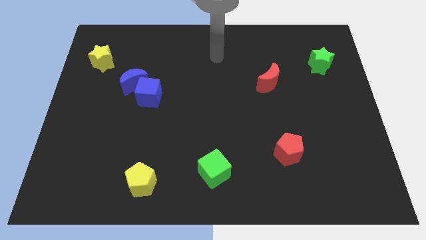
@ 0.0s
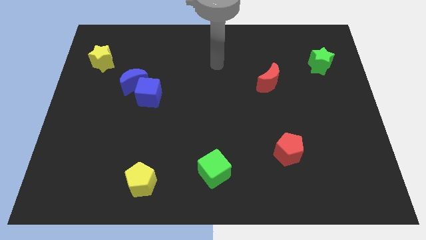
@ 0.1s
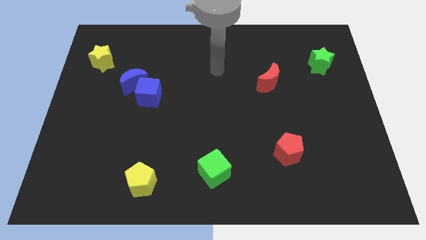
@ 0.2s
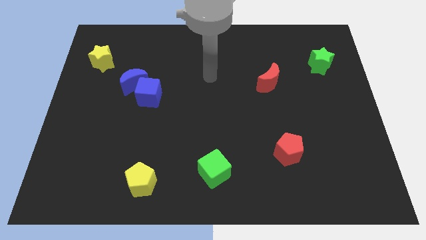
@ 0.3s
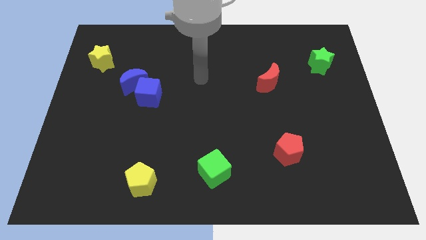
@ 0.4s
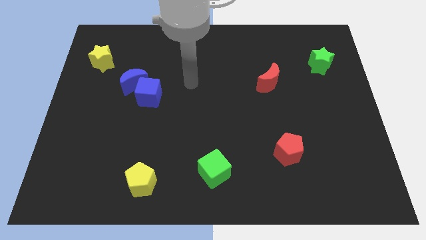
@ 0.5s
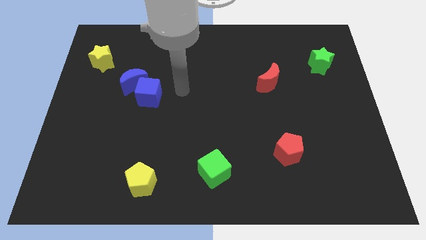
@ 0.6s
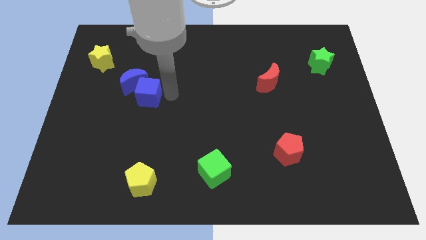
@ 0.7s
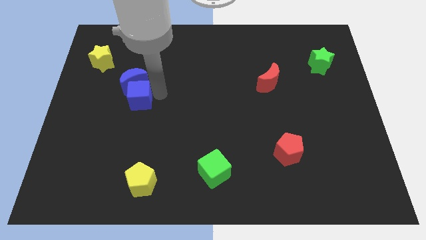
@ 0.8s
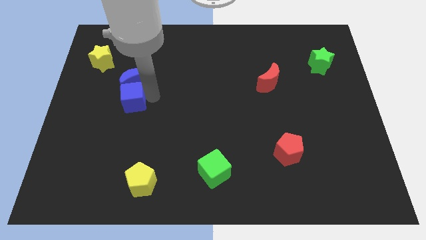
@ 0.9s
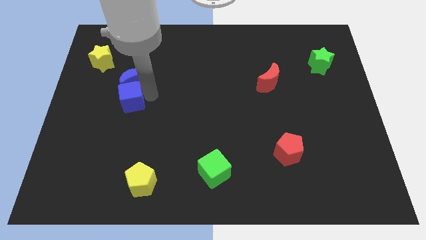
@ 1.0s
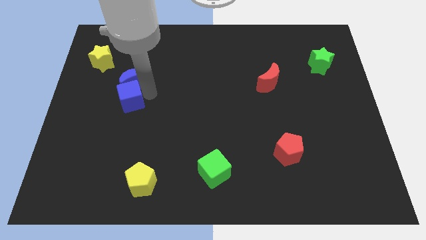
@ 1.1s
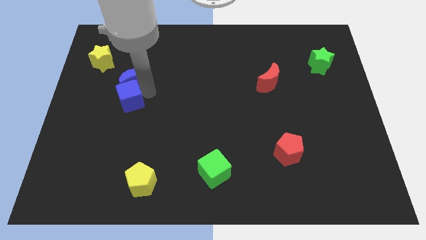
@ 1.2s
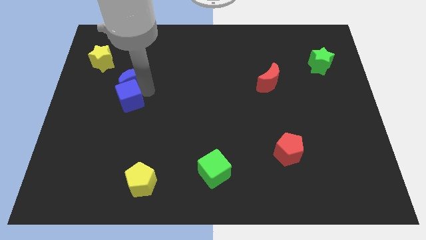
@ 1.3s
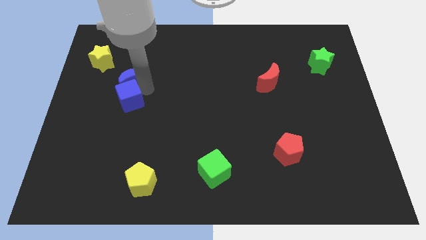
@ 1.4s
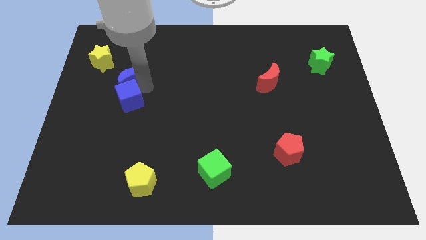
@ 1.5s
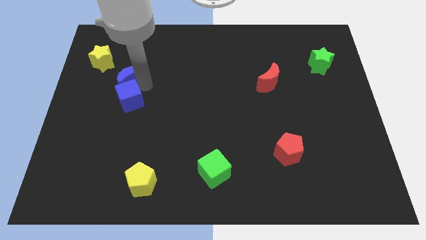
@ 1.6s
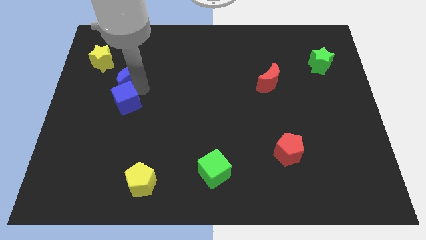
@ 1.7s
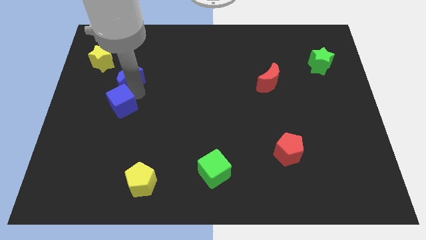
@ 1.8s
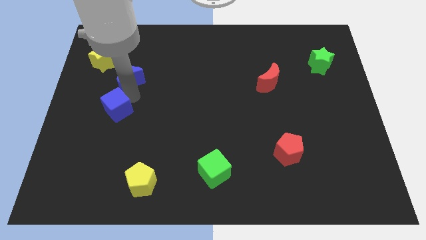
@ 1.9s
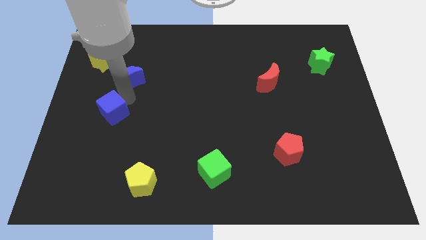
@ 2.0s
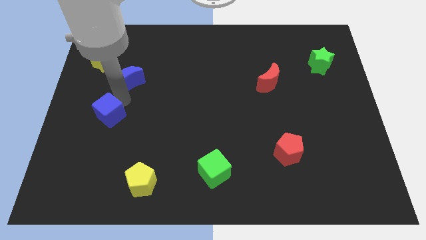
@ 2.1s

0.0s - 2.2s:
separate the blue moon from the blue cube

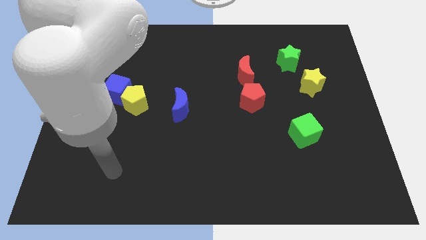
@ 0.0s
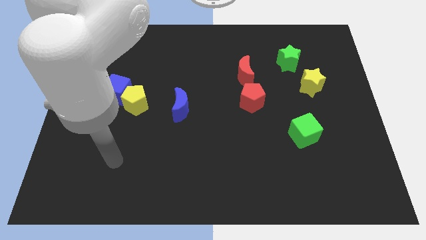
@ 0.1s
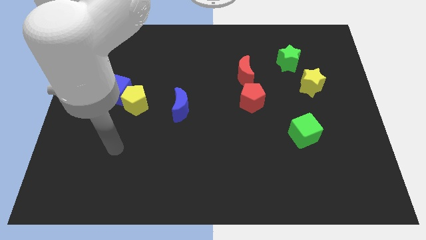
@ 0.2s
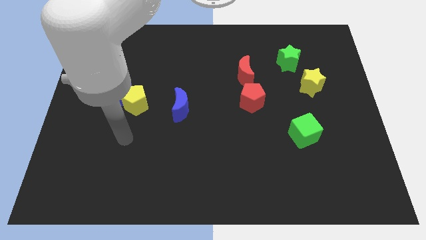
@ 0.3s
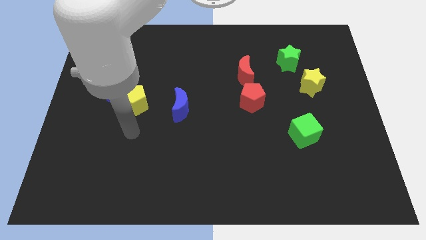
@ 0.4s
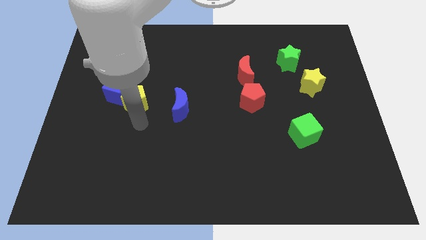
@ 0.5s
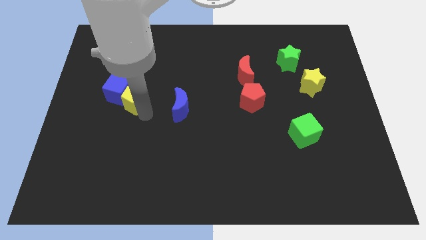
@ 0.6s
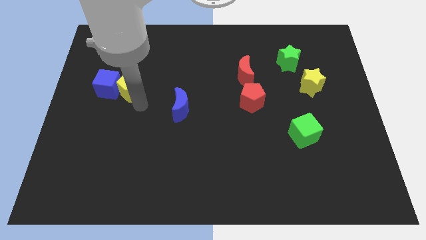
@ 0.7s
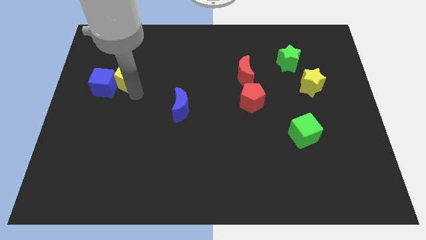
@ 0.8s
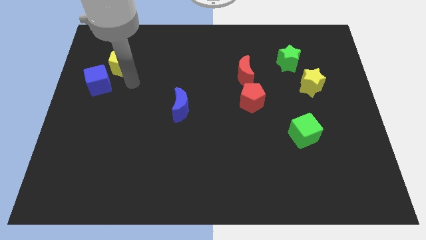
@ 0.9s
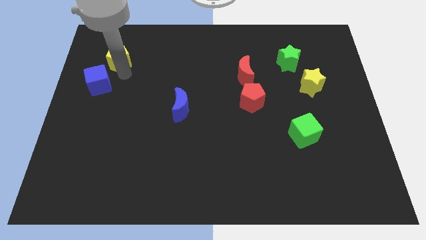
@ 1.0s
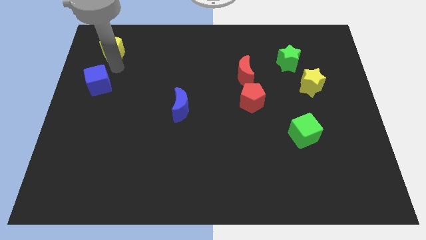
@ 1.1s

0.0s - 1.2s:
pull the blue cube apart from the yellow pentagon

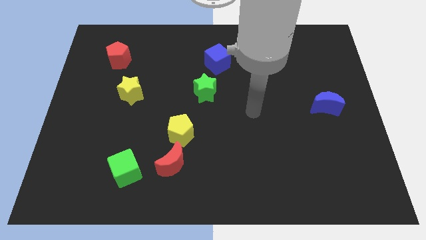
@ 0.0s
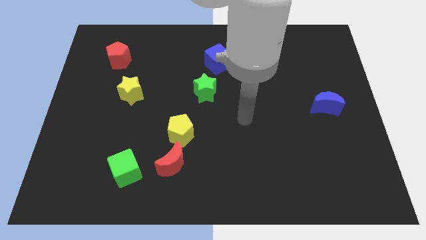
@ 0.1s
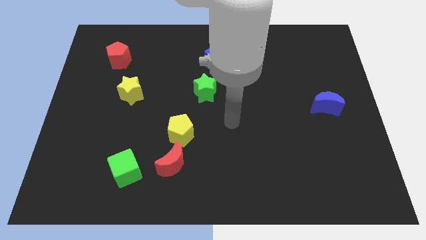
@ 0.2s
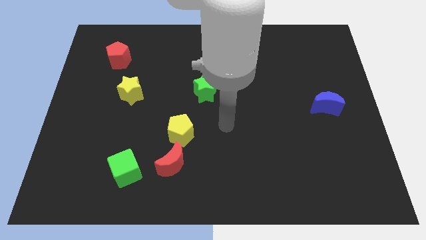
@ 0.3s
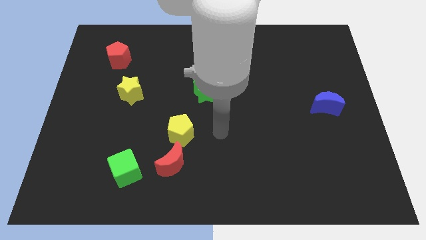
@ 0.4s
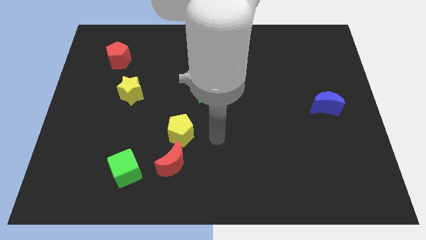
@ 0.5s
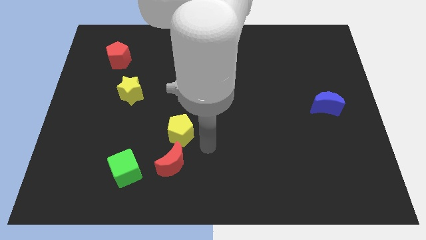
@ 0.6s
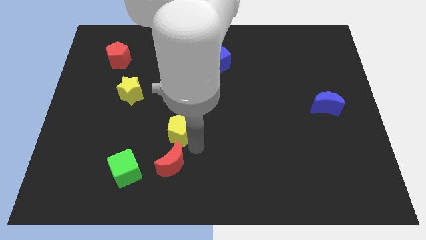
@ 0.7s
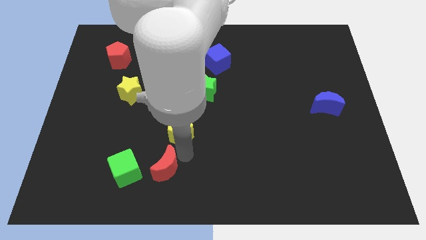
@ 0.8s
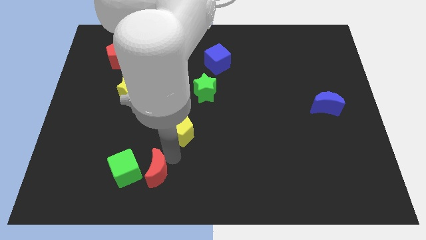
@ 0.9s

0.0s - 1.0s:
move the yellow pentagon away from the red moon

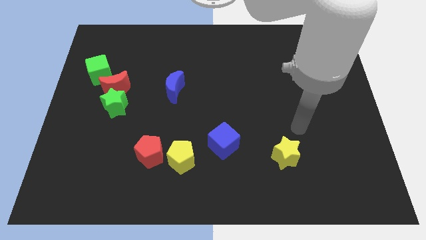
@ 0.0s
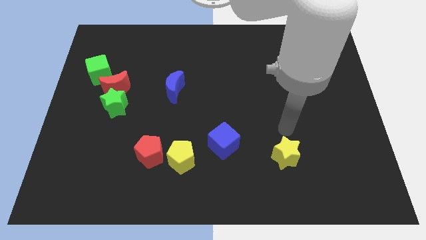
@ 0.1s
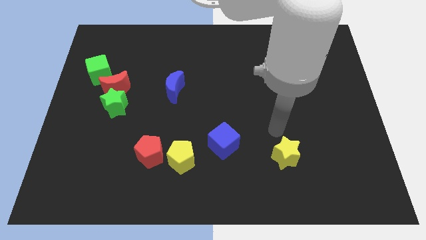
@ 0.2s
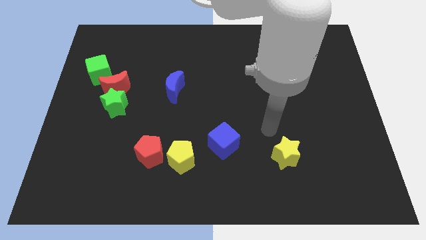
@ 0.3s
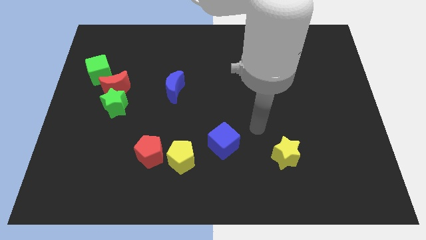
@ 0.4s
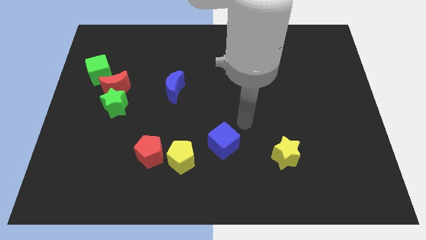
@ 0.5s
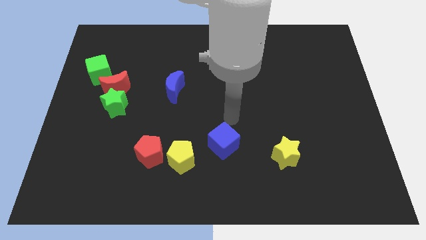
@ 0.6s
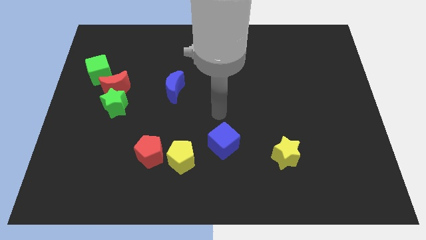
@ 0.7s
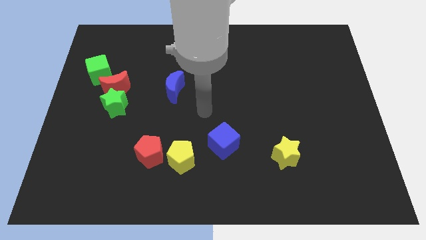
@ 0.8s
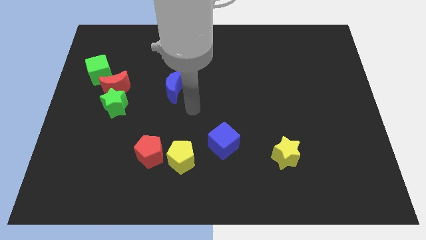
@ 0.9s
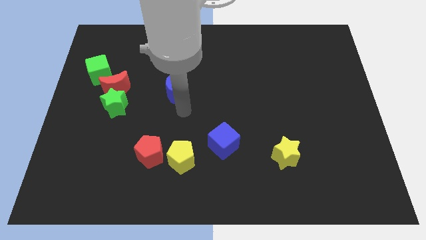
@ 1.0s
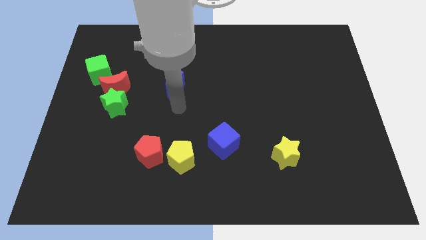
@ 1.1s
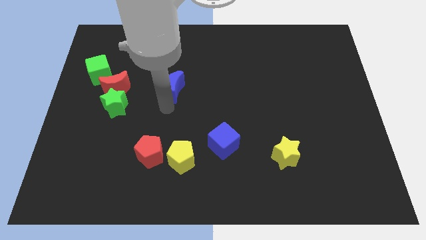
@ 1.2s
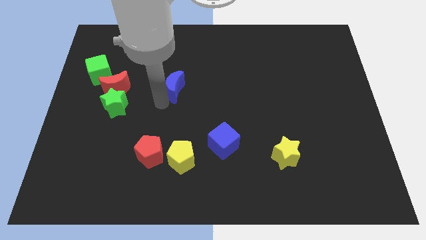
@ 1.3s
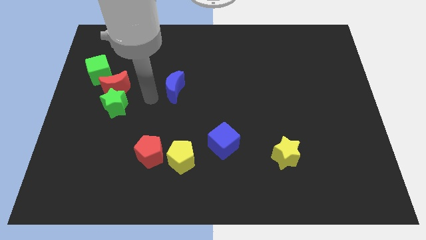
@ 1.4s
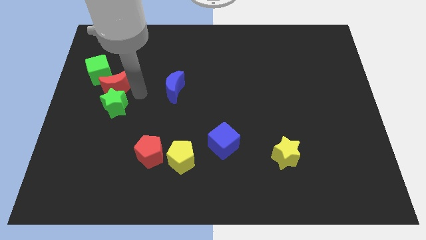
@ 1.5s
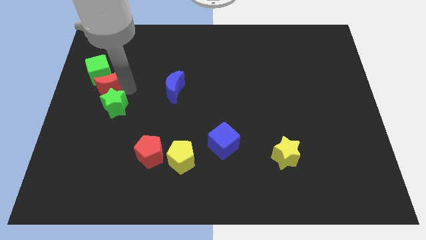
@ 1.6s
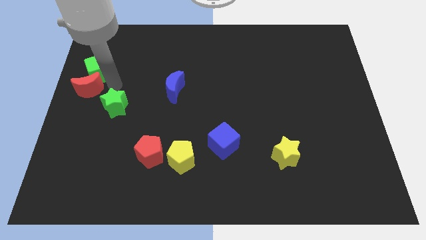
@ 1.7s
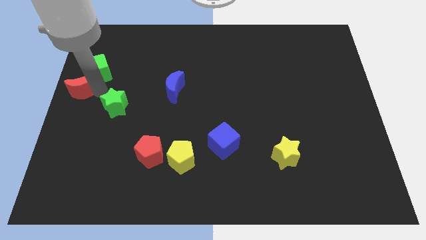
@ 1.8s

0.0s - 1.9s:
separate the green star from the red moon

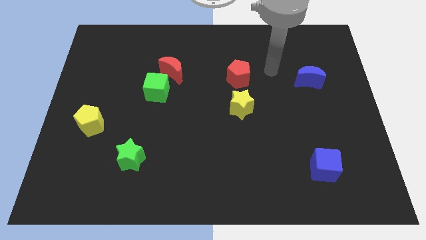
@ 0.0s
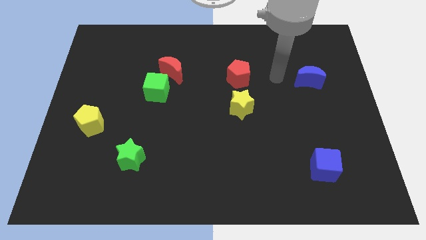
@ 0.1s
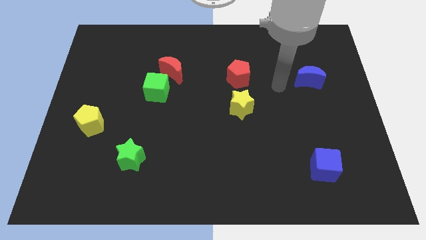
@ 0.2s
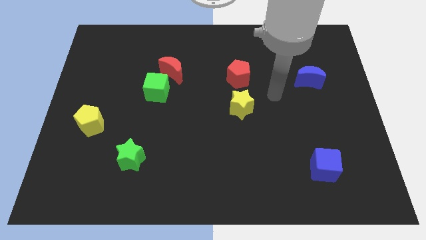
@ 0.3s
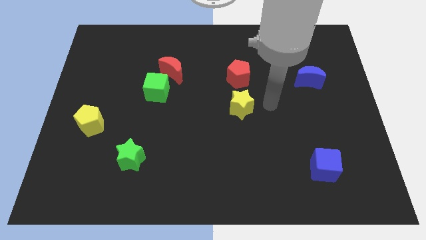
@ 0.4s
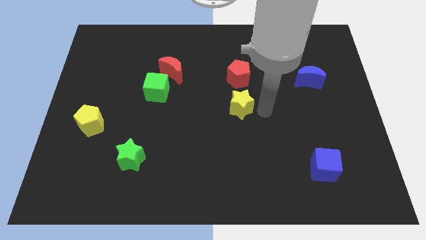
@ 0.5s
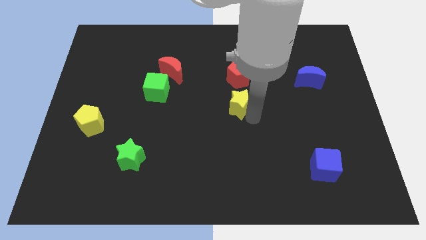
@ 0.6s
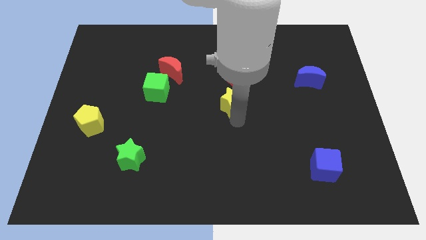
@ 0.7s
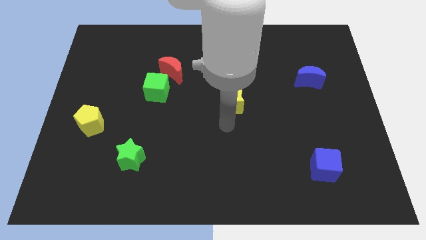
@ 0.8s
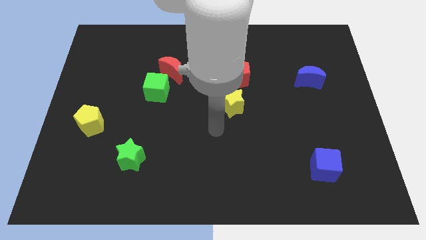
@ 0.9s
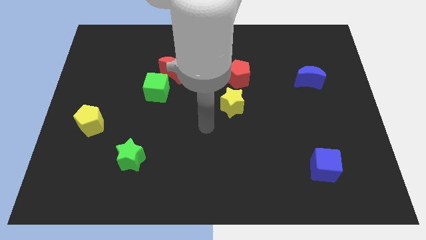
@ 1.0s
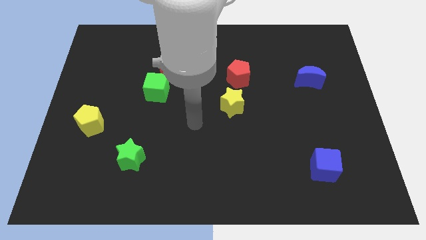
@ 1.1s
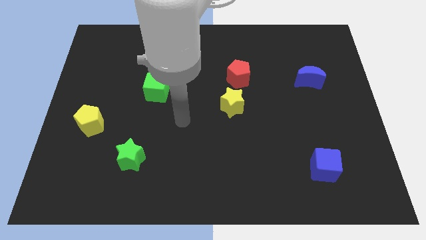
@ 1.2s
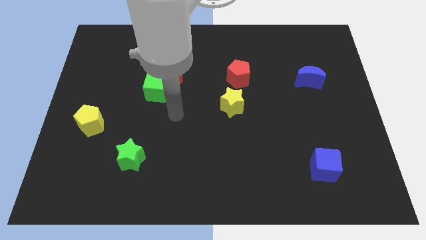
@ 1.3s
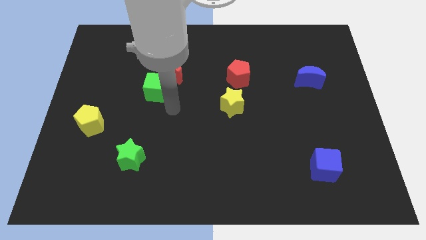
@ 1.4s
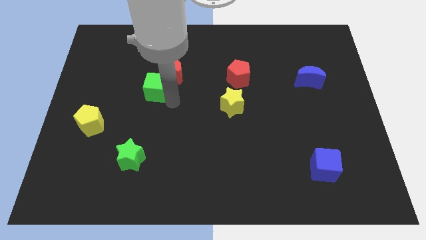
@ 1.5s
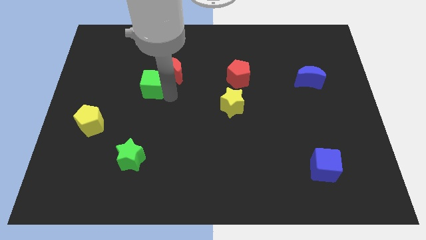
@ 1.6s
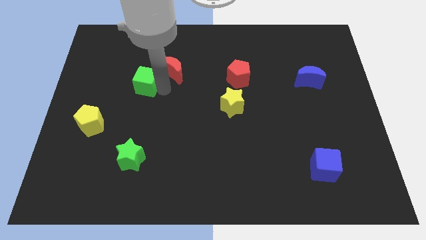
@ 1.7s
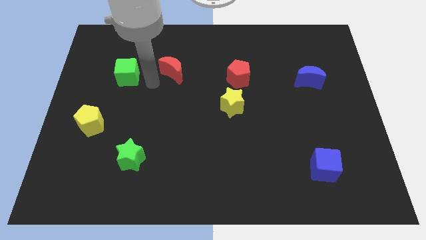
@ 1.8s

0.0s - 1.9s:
move the red moon away from the green cube

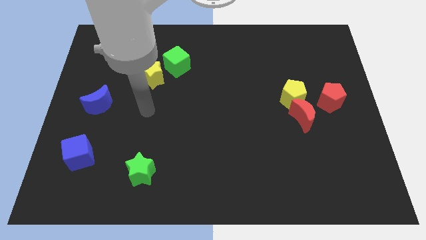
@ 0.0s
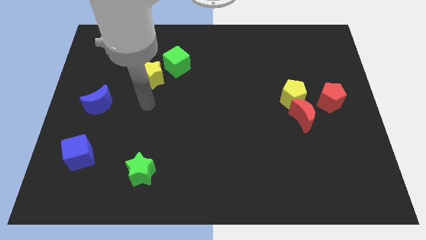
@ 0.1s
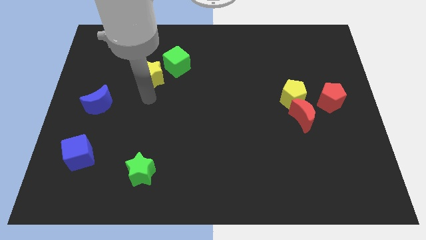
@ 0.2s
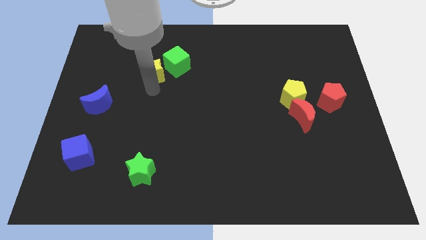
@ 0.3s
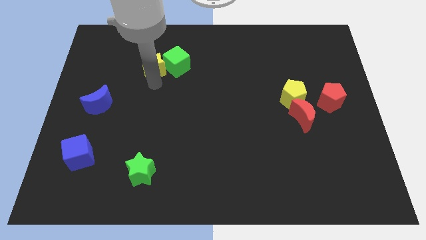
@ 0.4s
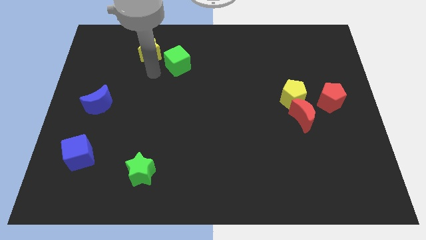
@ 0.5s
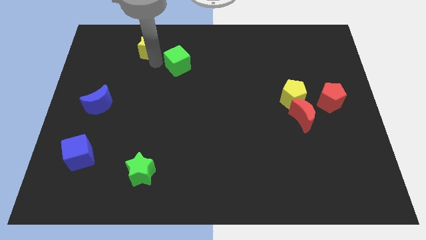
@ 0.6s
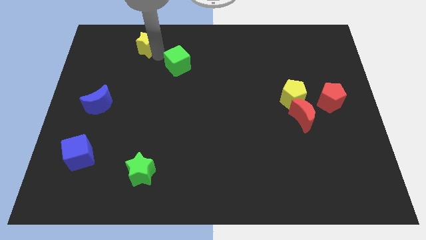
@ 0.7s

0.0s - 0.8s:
pull the green cube apart from the yellow star

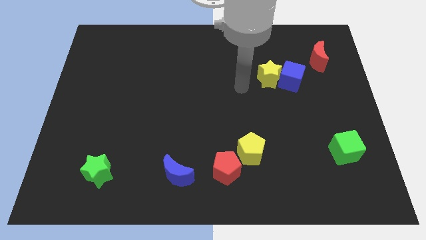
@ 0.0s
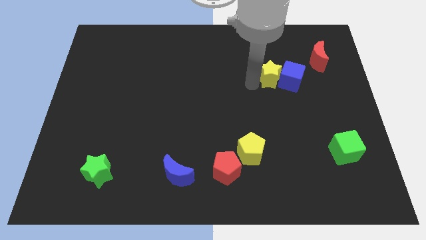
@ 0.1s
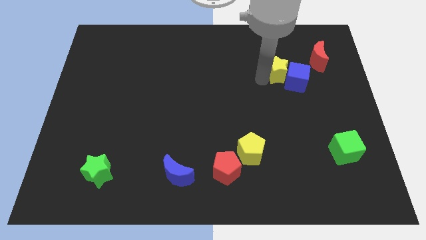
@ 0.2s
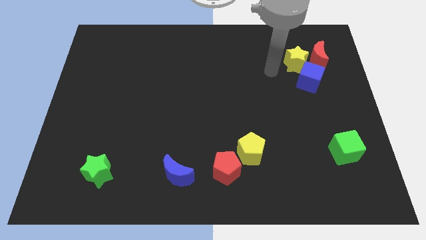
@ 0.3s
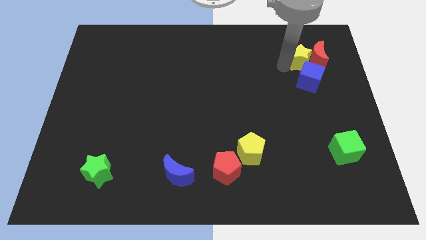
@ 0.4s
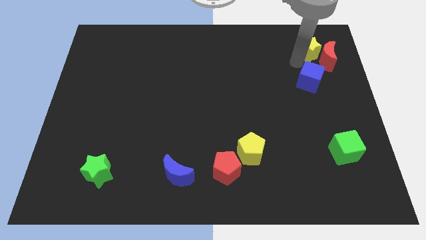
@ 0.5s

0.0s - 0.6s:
move the blue cube away from the yellow star
